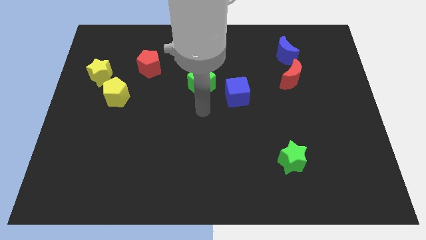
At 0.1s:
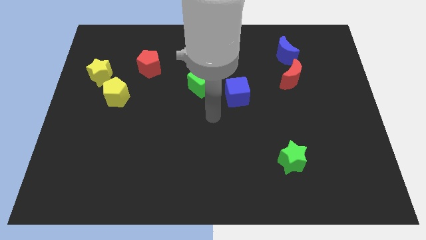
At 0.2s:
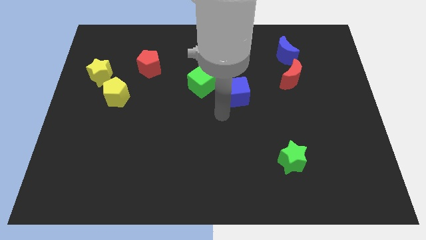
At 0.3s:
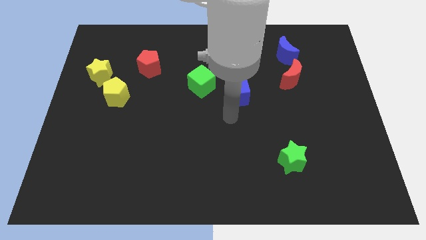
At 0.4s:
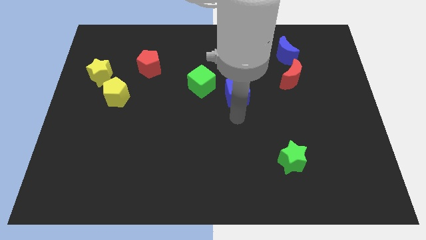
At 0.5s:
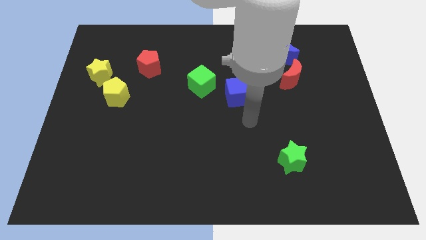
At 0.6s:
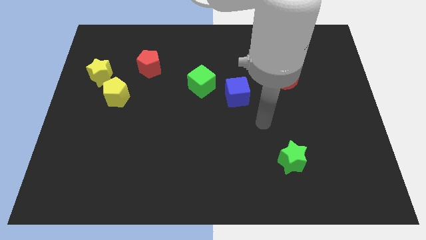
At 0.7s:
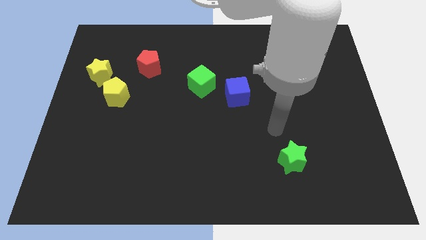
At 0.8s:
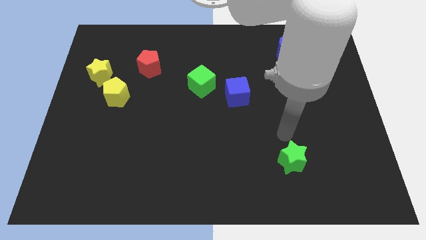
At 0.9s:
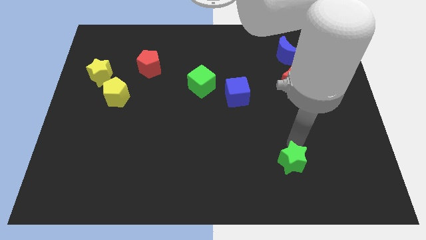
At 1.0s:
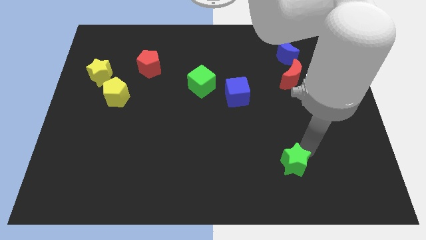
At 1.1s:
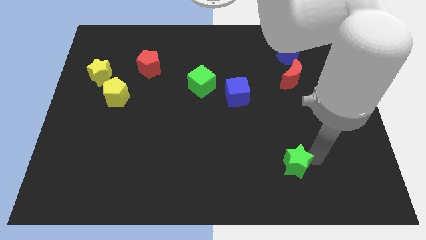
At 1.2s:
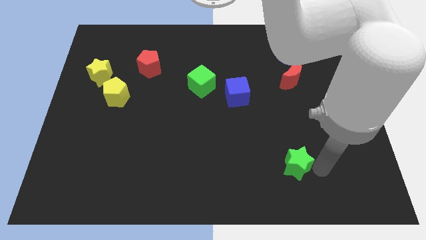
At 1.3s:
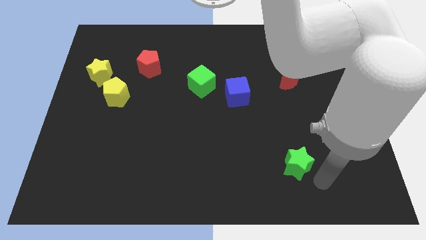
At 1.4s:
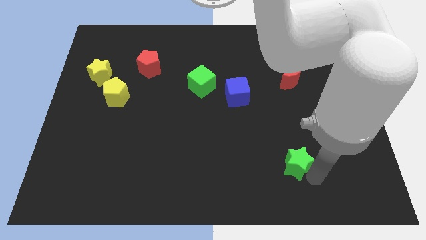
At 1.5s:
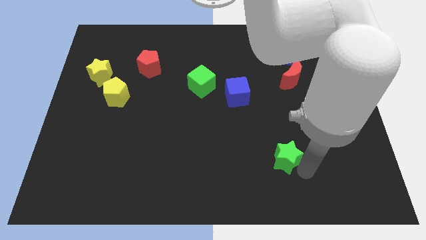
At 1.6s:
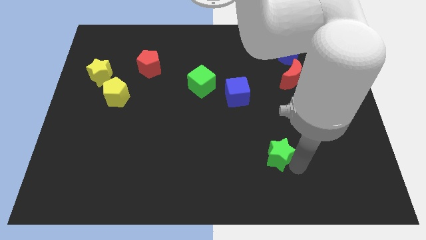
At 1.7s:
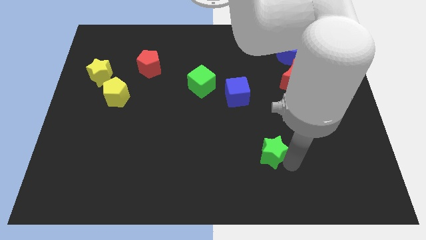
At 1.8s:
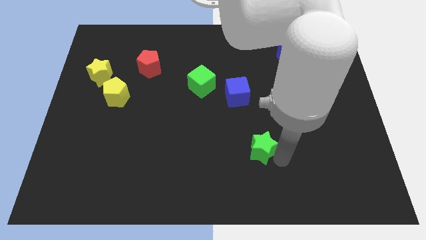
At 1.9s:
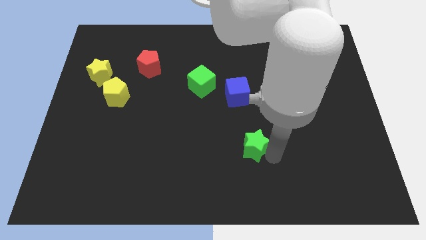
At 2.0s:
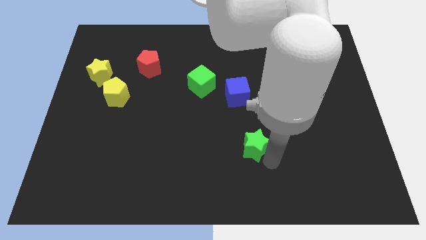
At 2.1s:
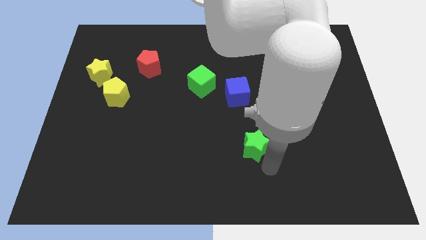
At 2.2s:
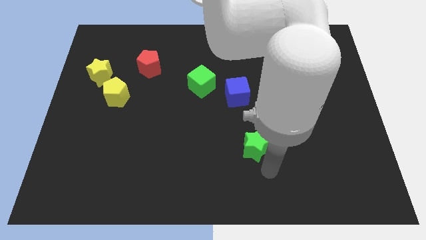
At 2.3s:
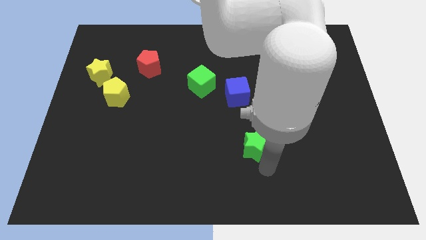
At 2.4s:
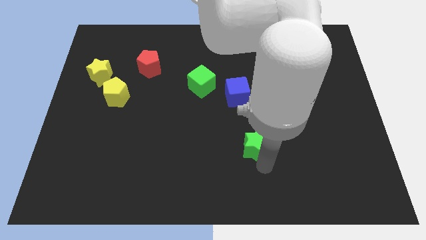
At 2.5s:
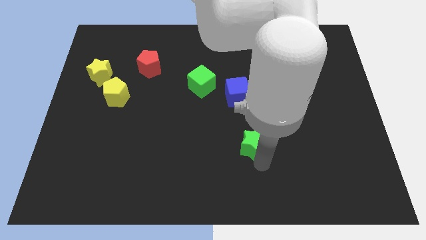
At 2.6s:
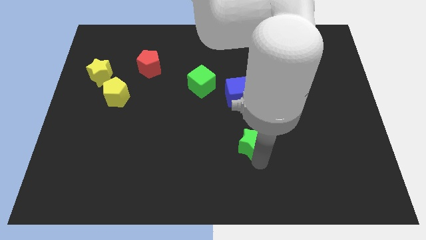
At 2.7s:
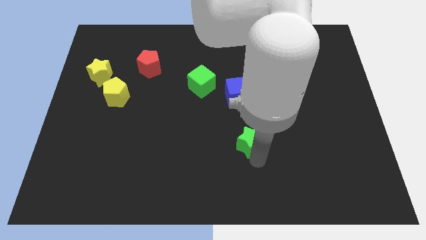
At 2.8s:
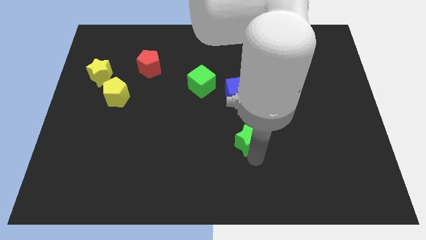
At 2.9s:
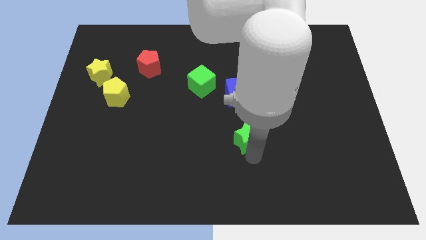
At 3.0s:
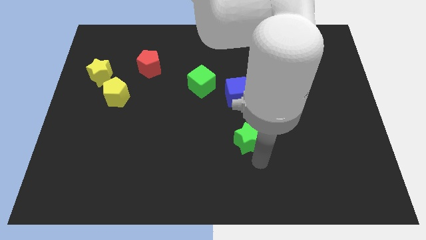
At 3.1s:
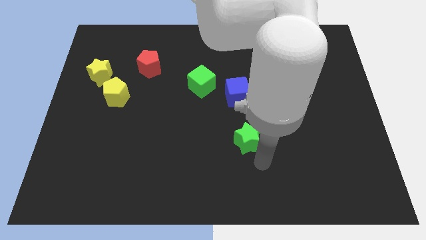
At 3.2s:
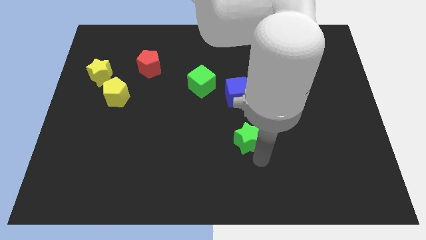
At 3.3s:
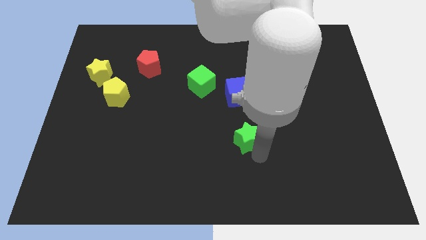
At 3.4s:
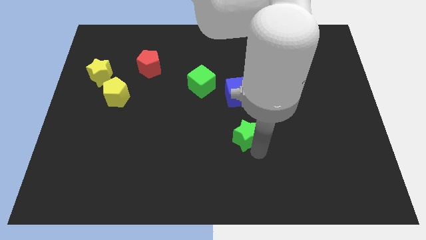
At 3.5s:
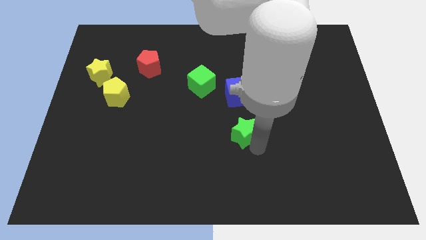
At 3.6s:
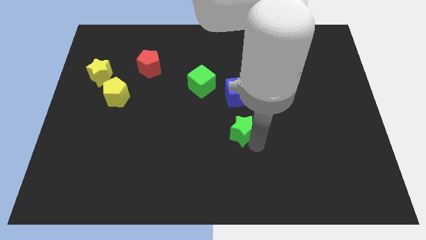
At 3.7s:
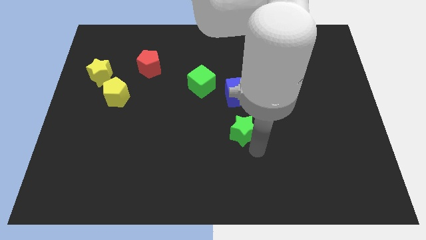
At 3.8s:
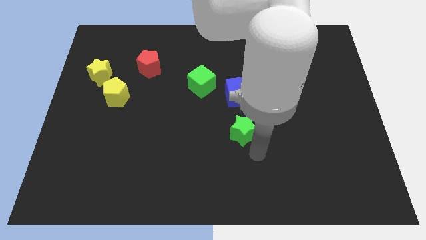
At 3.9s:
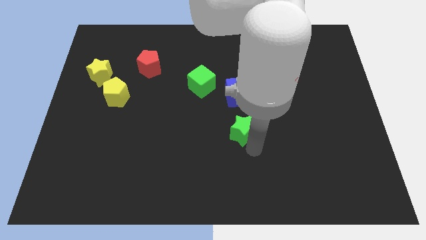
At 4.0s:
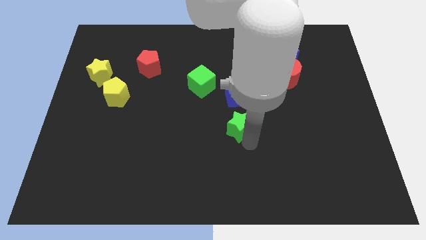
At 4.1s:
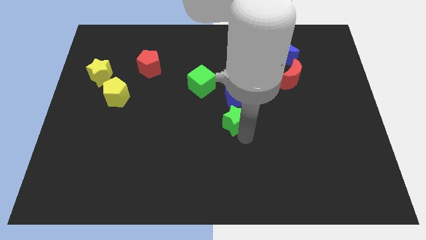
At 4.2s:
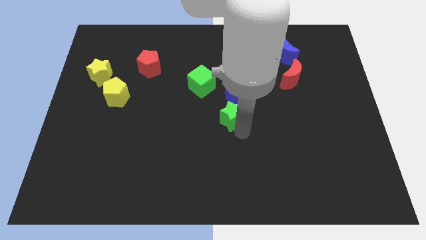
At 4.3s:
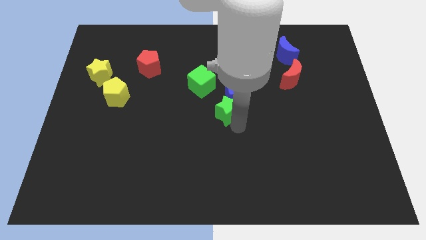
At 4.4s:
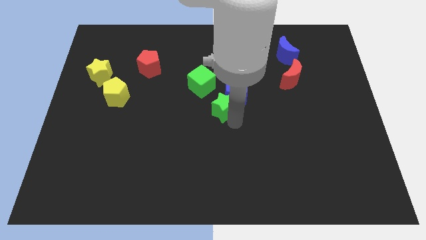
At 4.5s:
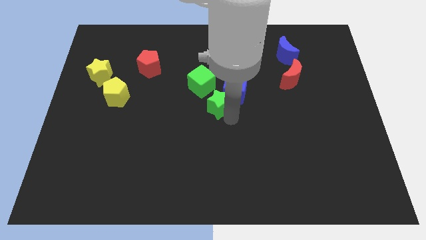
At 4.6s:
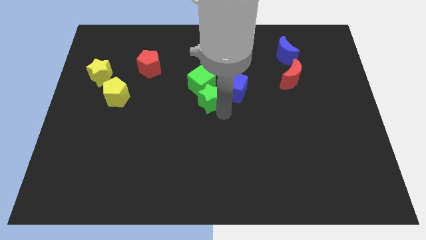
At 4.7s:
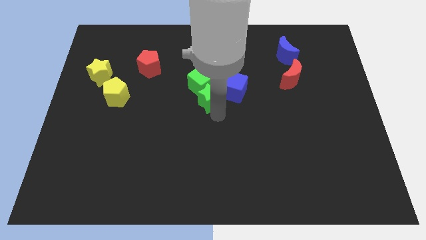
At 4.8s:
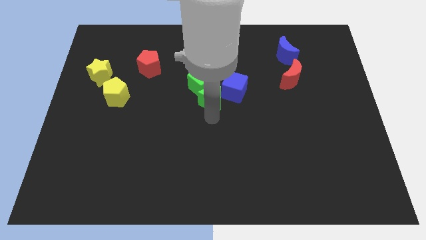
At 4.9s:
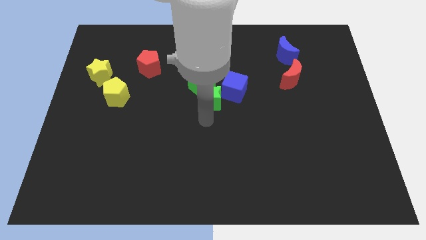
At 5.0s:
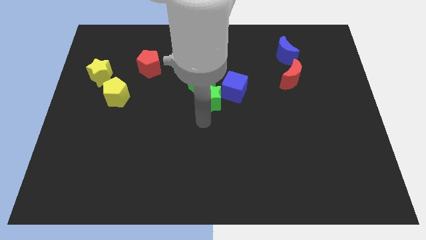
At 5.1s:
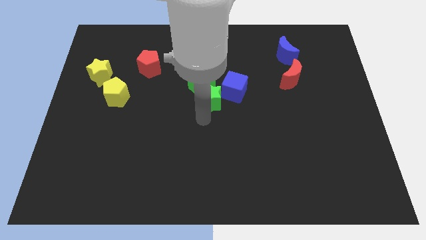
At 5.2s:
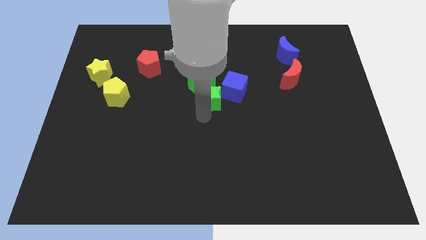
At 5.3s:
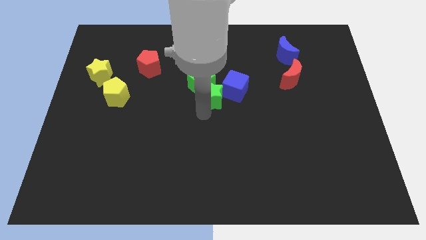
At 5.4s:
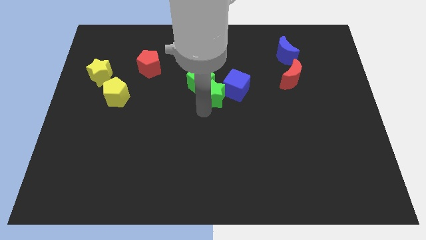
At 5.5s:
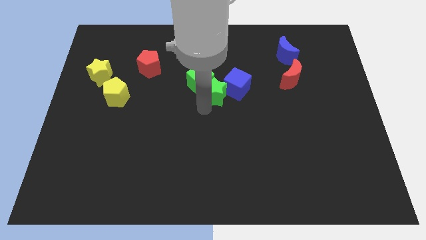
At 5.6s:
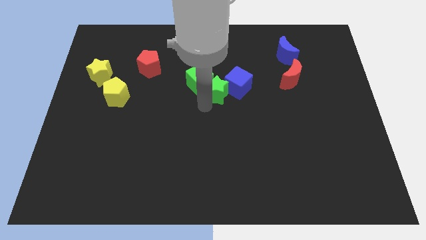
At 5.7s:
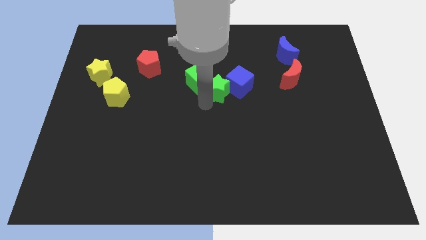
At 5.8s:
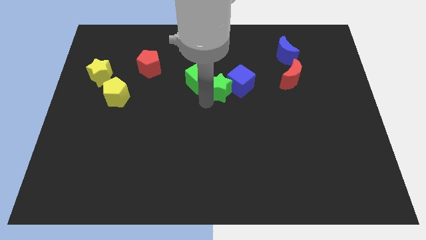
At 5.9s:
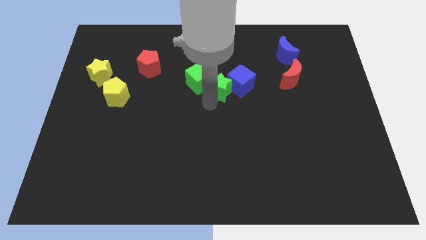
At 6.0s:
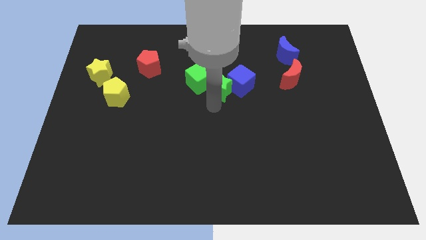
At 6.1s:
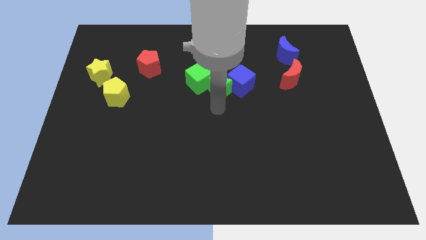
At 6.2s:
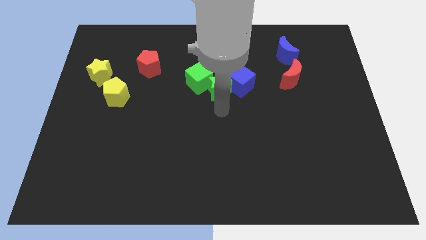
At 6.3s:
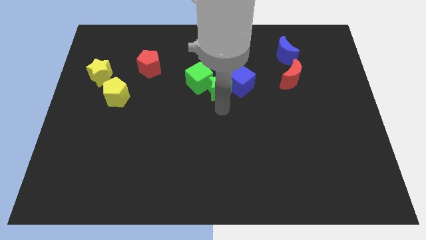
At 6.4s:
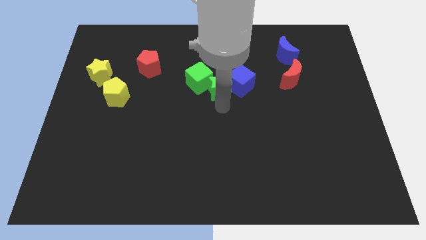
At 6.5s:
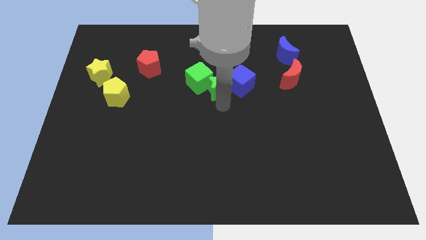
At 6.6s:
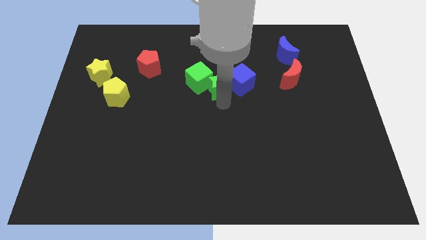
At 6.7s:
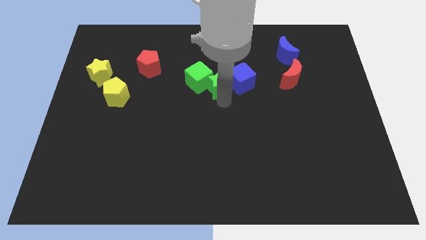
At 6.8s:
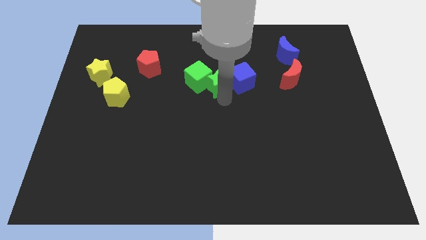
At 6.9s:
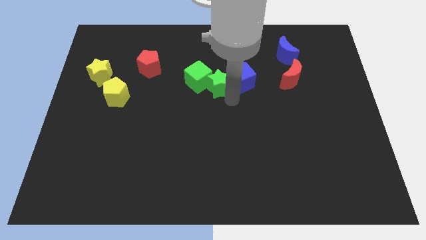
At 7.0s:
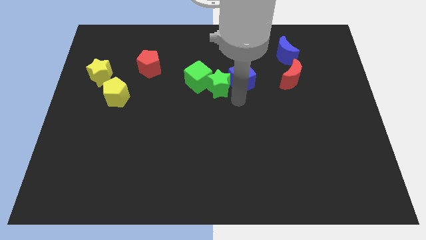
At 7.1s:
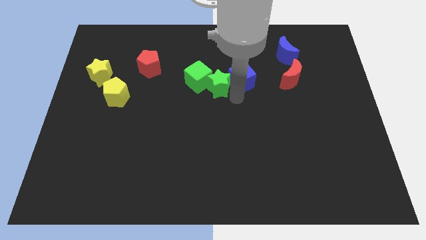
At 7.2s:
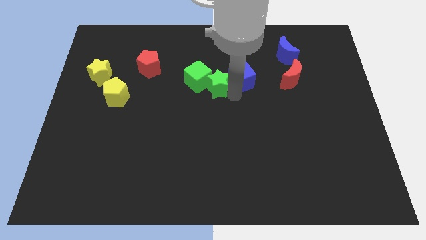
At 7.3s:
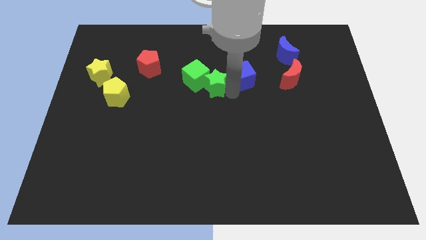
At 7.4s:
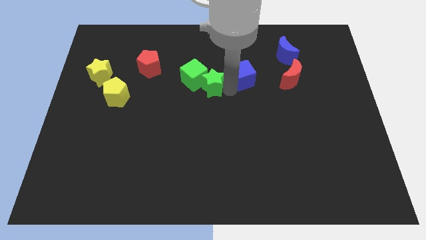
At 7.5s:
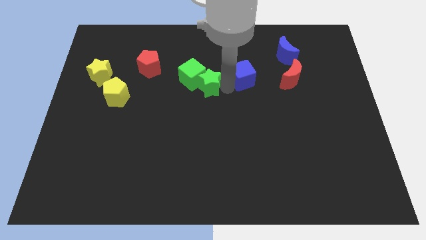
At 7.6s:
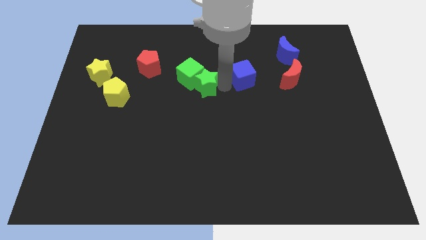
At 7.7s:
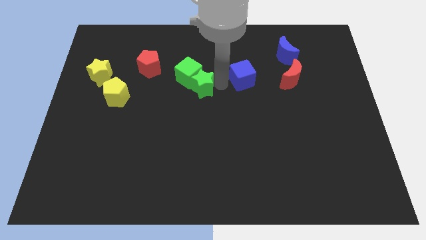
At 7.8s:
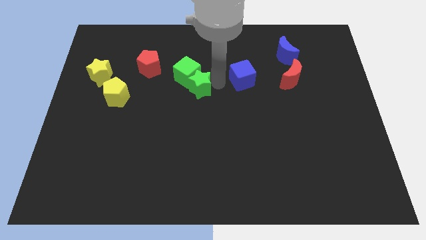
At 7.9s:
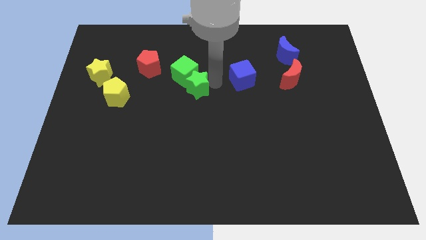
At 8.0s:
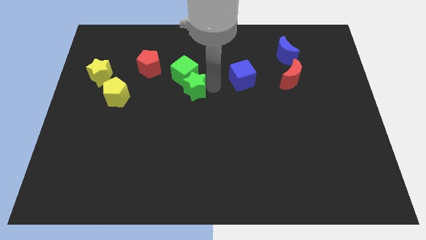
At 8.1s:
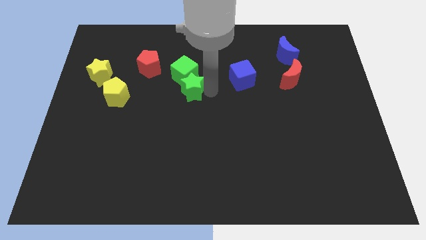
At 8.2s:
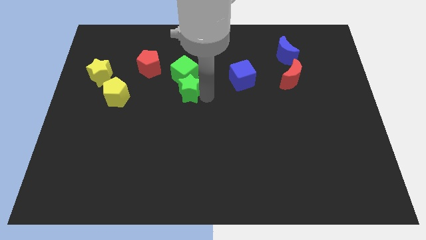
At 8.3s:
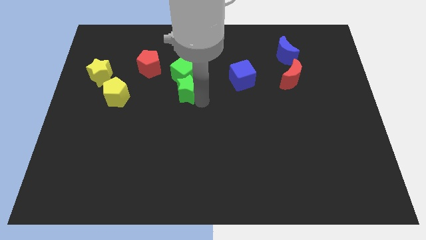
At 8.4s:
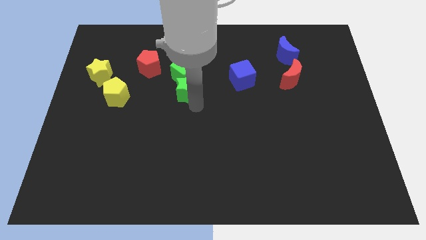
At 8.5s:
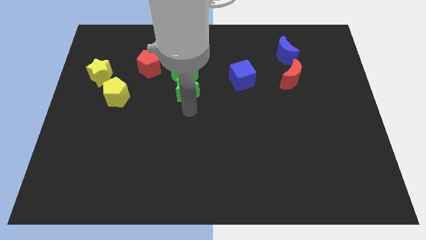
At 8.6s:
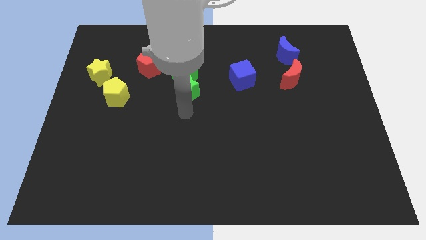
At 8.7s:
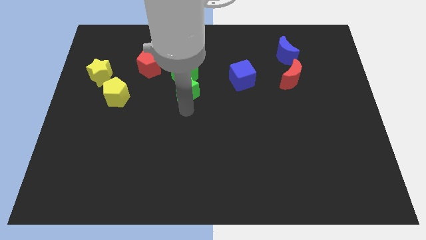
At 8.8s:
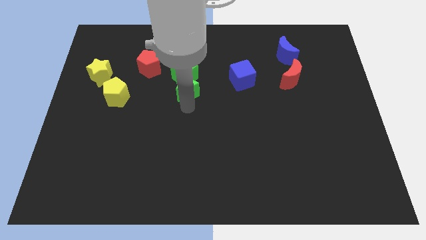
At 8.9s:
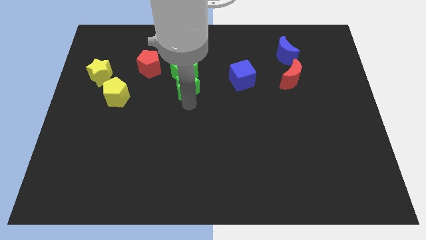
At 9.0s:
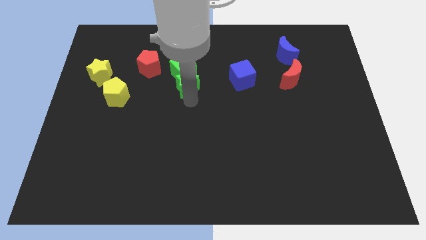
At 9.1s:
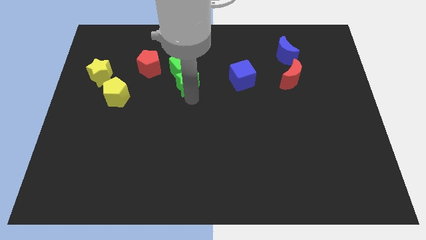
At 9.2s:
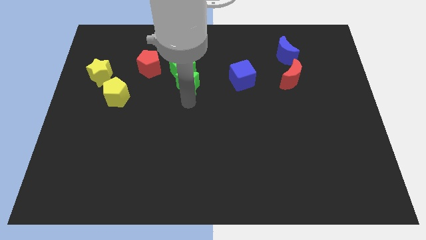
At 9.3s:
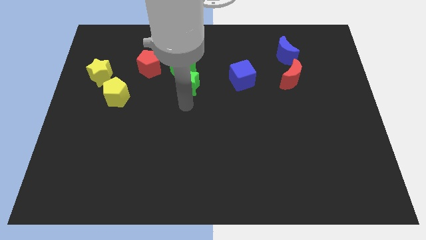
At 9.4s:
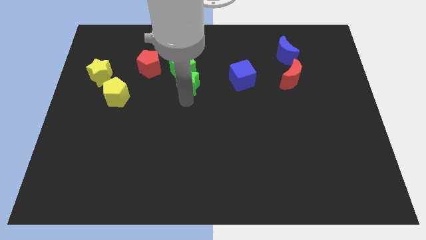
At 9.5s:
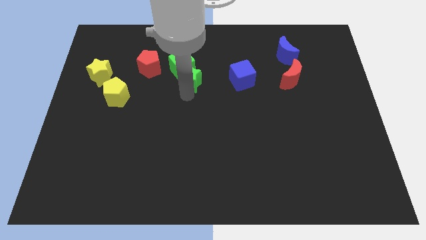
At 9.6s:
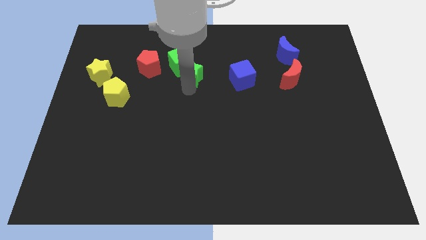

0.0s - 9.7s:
put the green star to the right of the red pentagon
